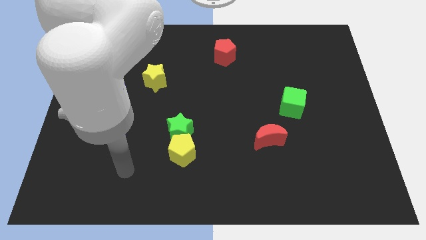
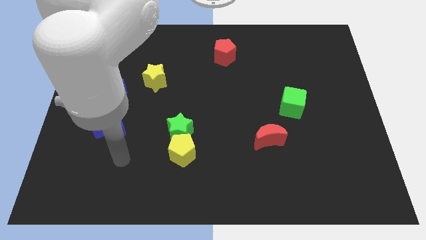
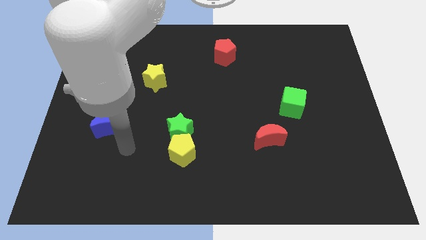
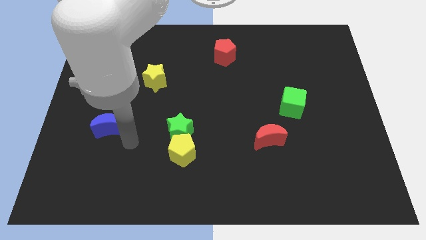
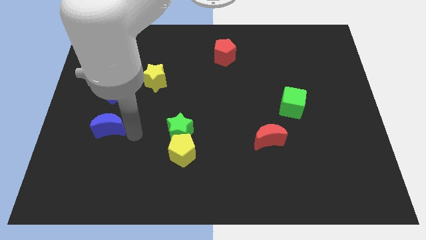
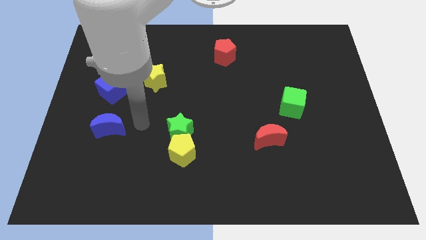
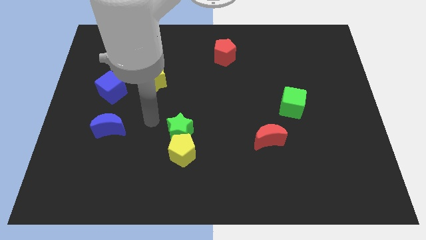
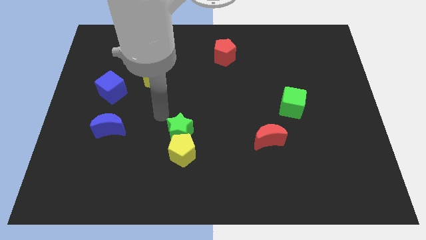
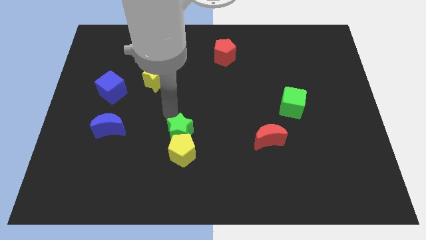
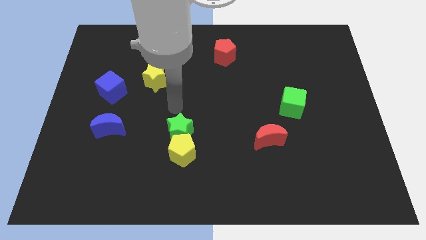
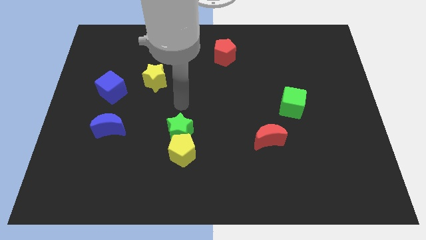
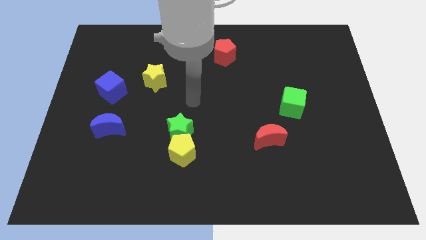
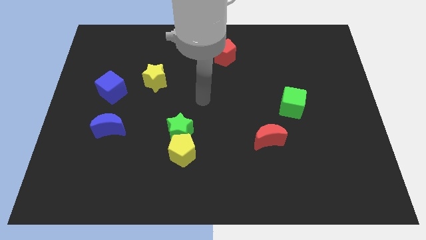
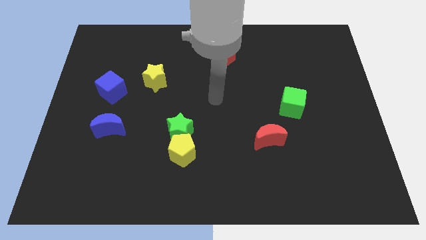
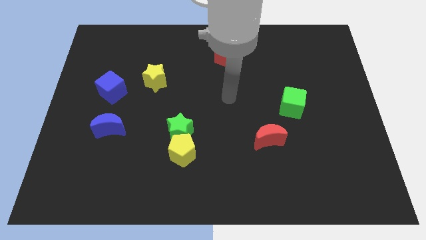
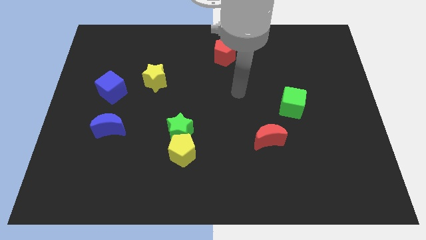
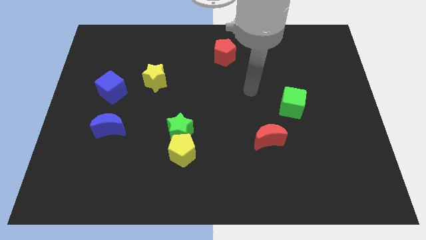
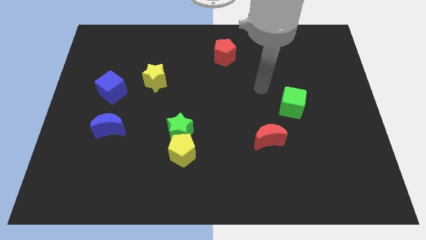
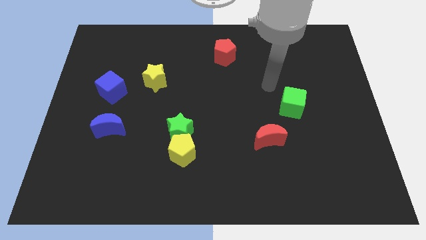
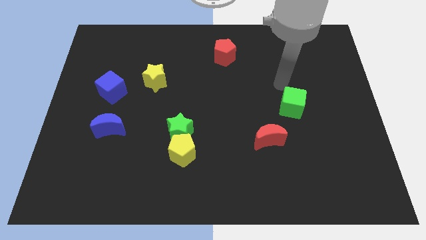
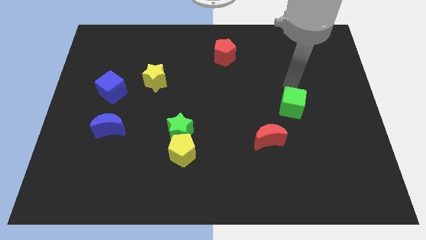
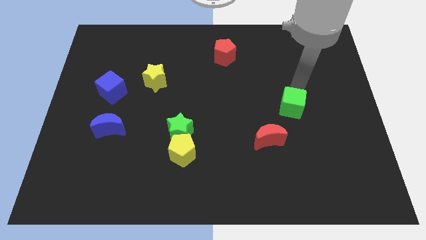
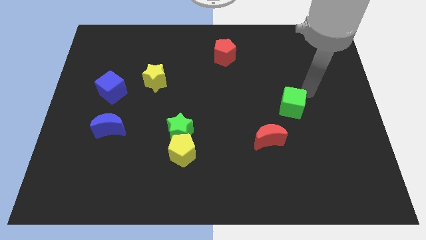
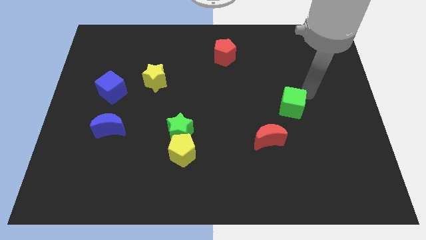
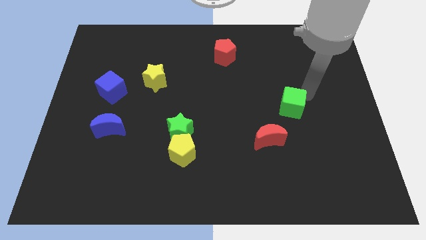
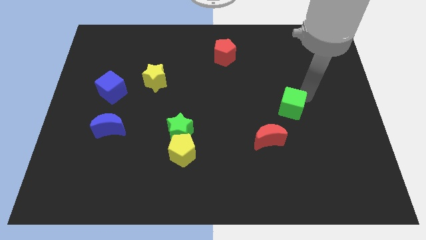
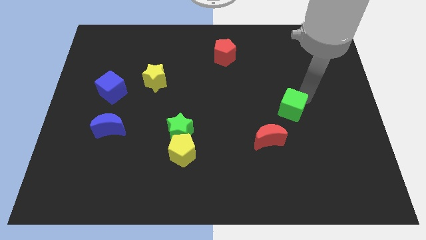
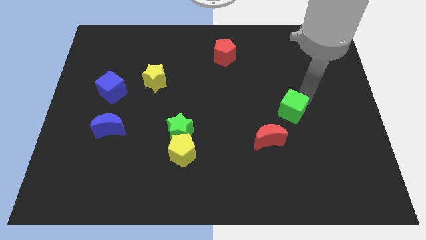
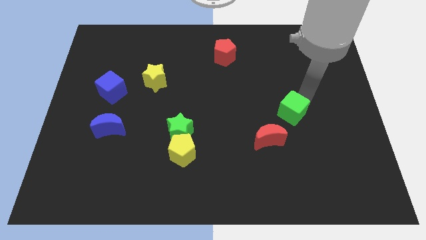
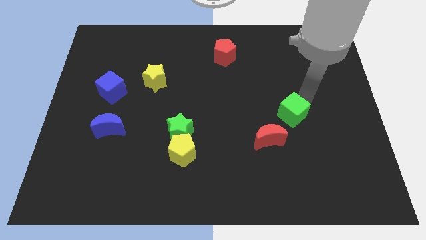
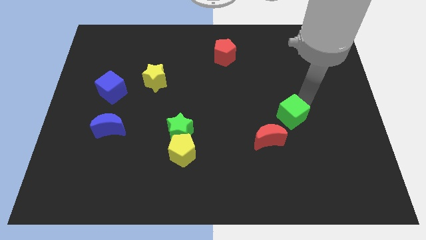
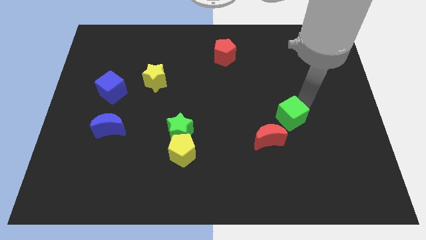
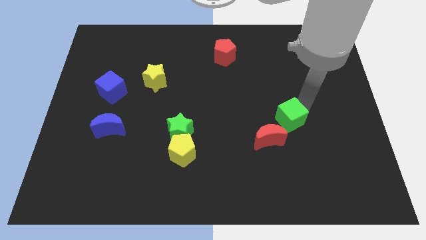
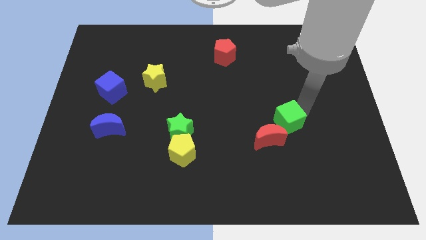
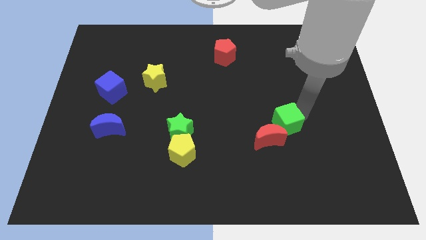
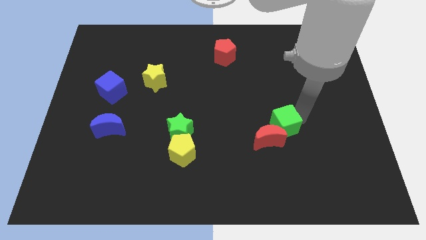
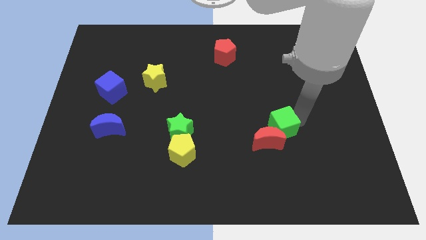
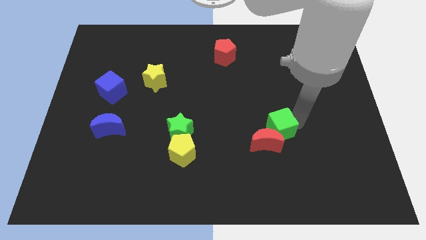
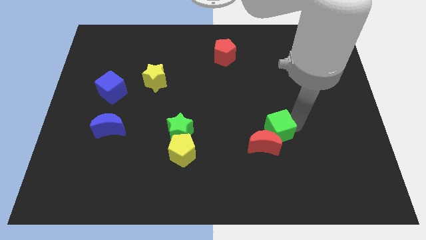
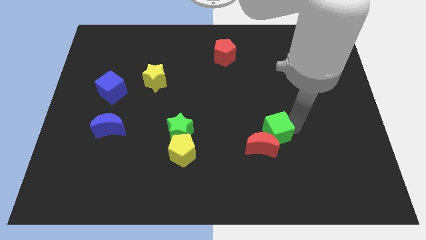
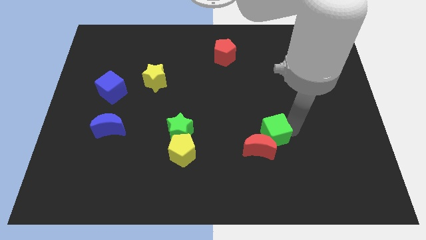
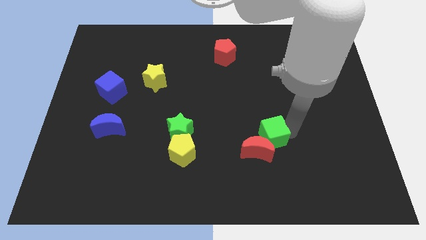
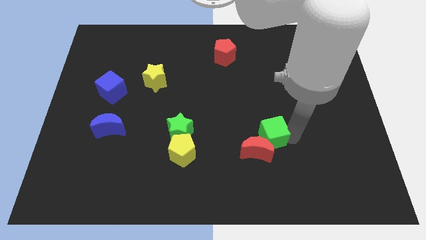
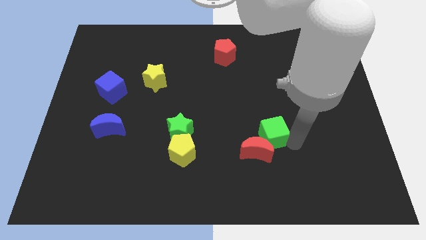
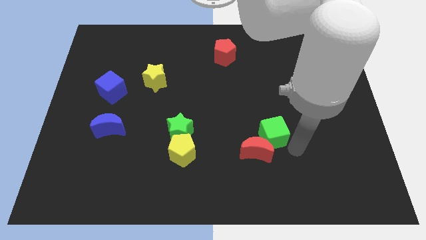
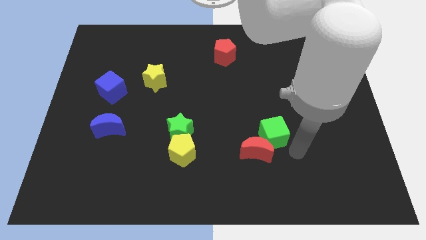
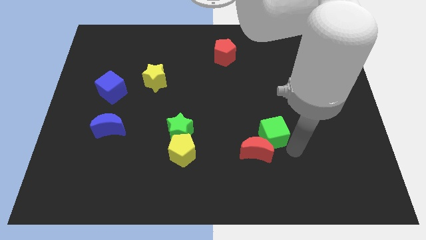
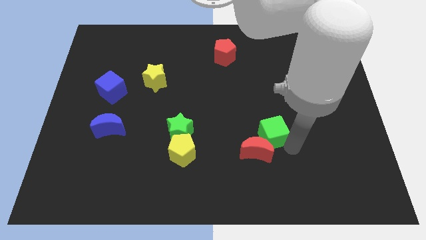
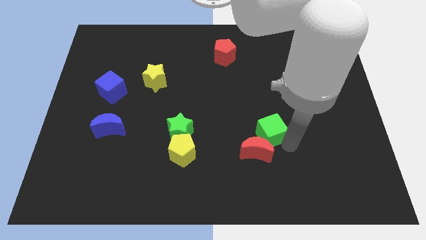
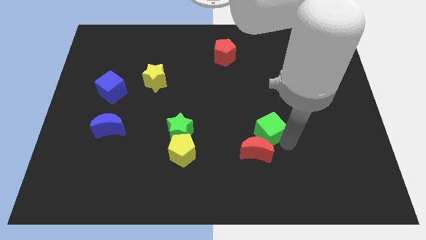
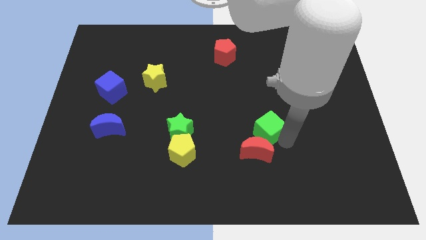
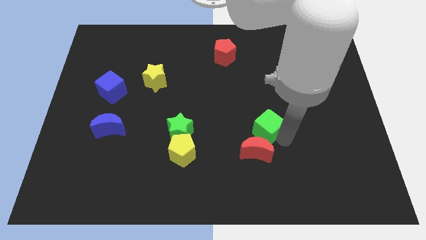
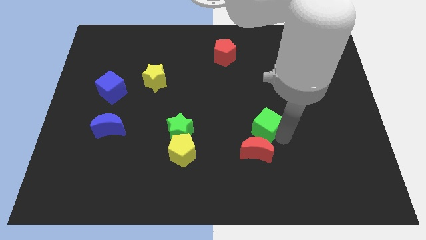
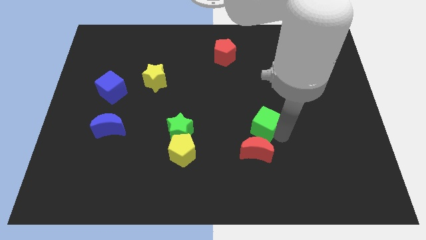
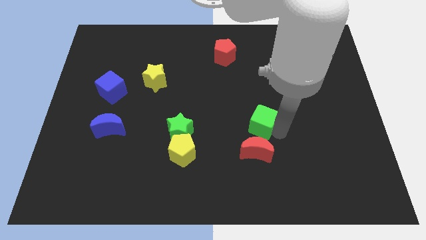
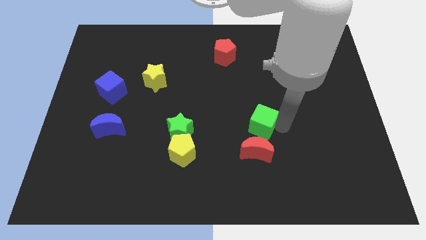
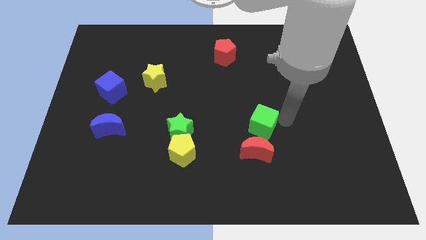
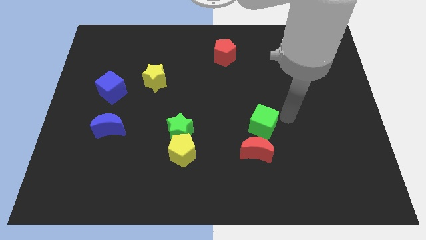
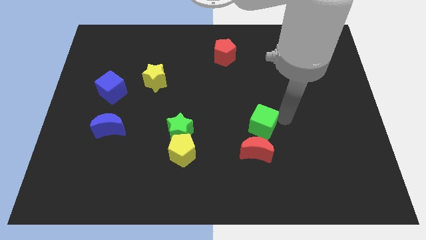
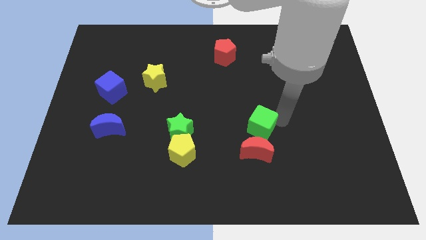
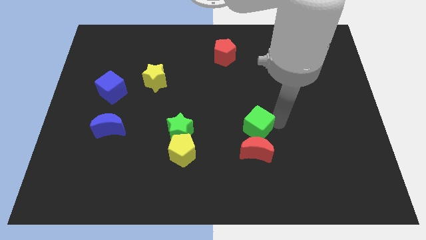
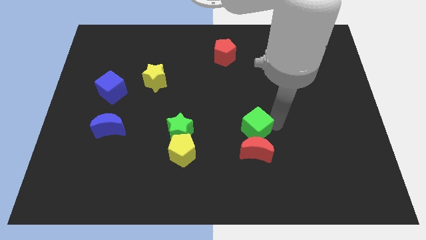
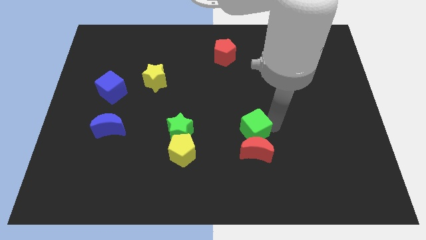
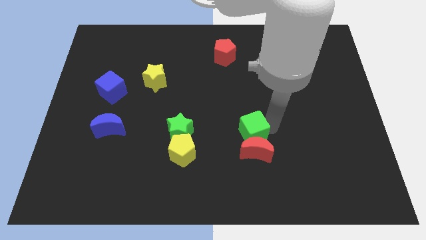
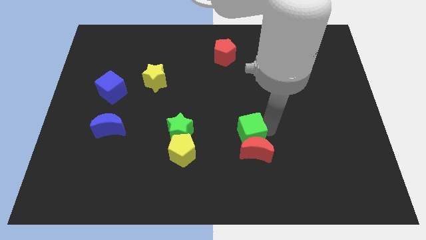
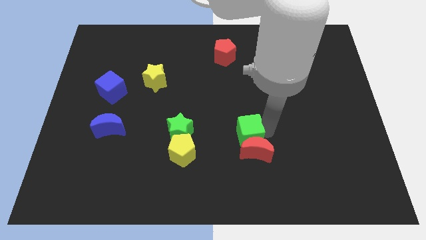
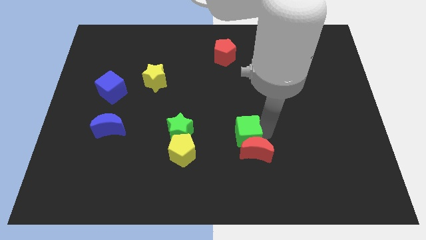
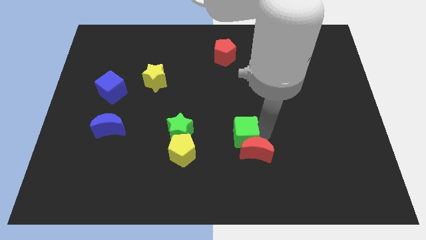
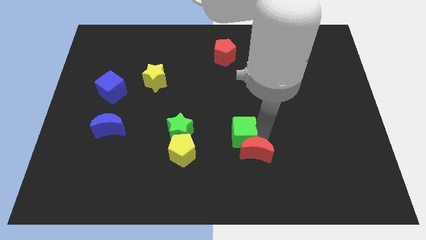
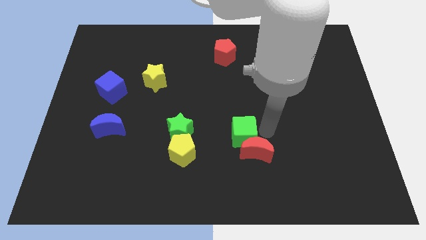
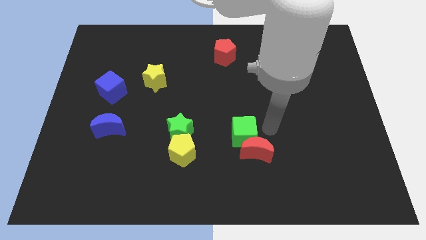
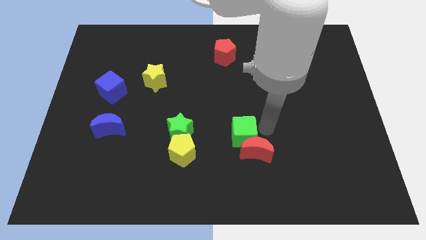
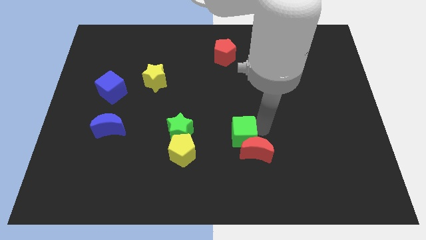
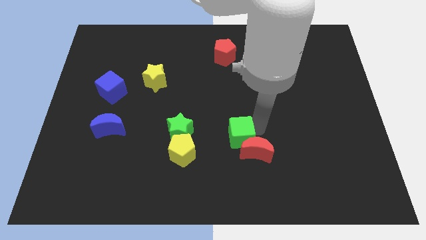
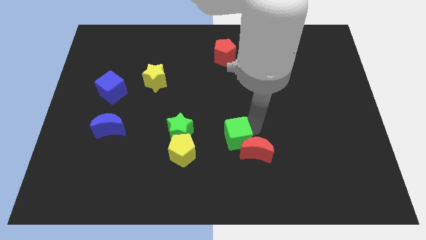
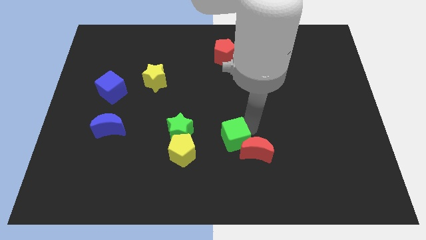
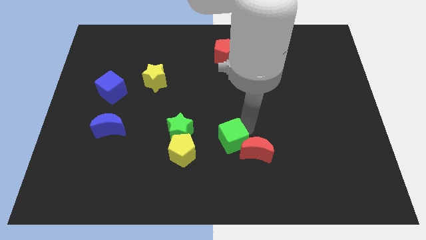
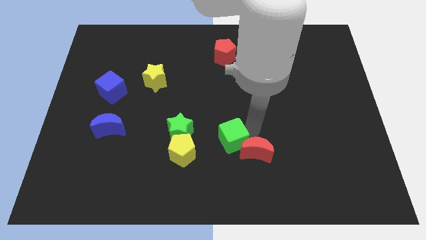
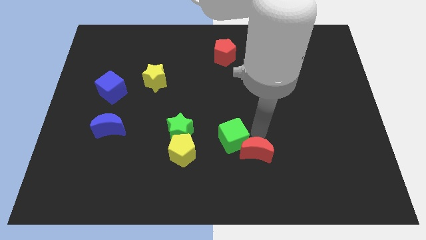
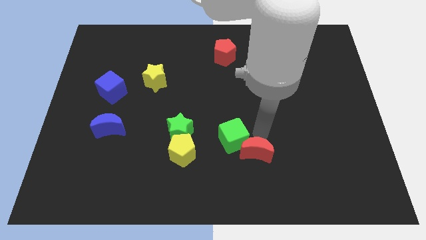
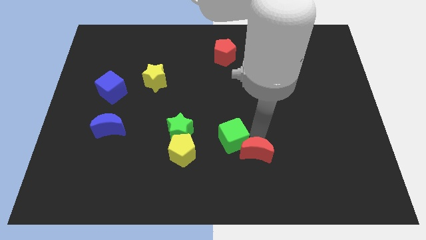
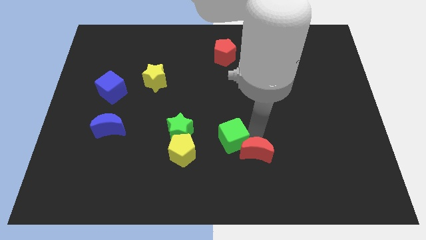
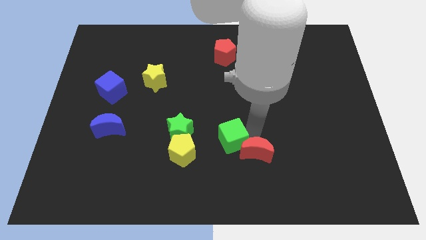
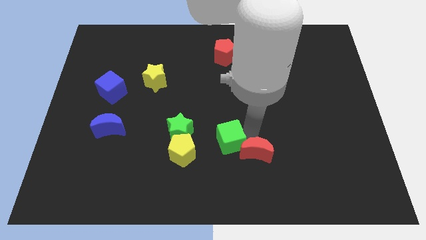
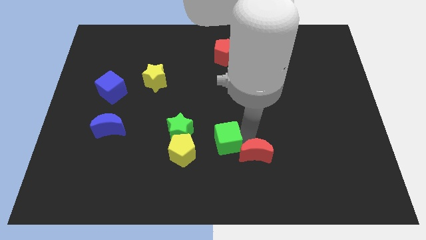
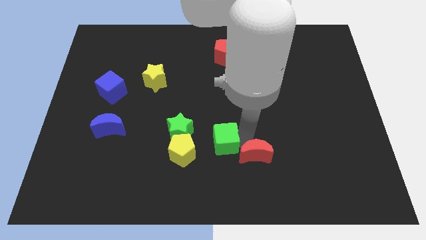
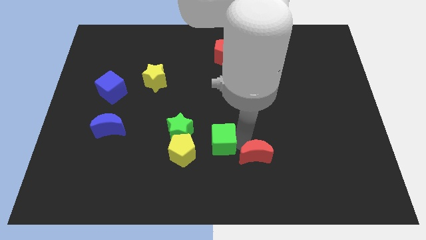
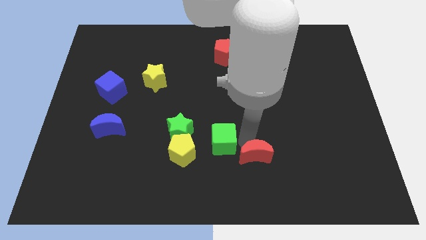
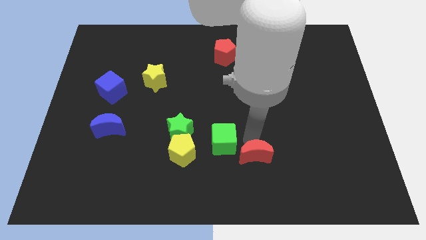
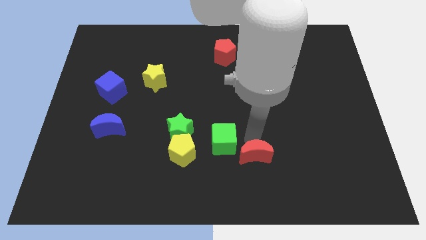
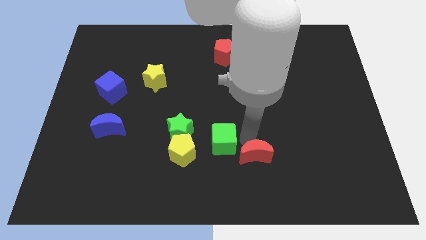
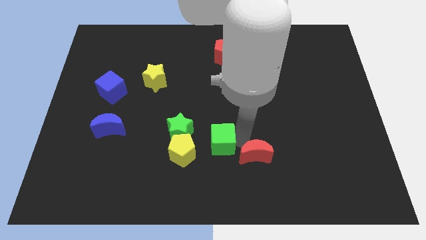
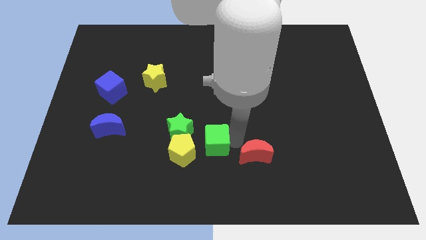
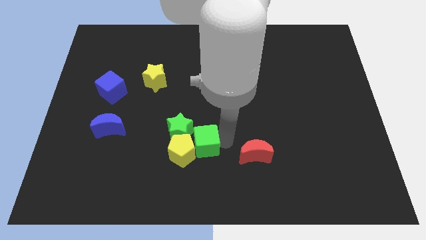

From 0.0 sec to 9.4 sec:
slide the green cube close to the yellow pentagon
